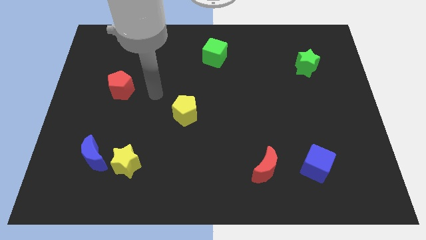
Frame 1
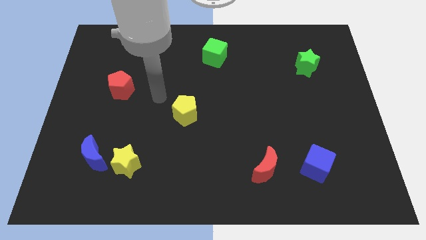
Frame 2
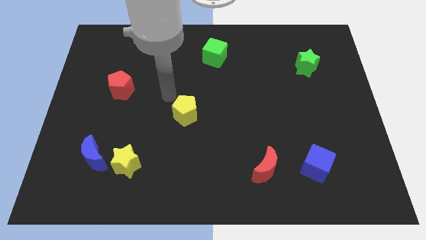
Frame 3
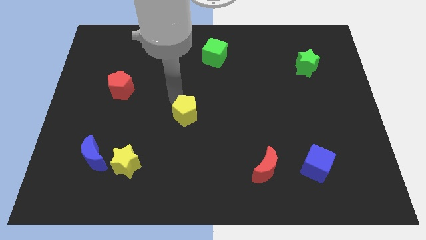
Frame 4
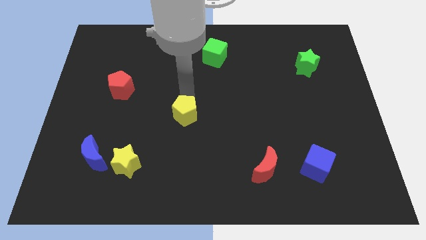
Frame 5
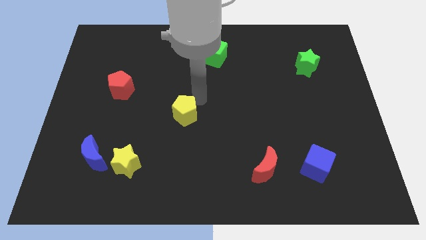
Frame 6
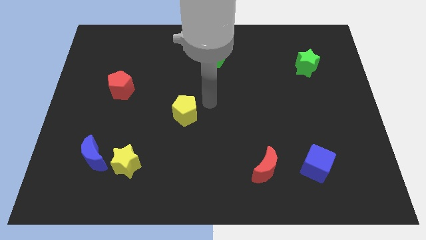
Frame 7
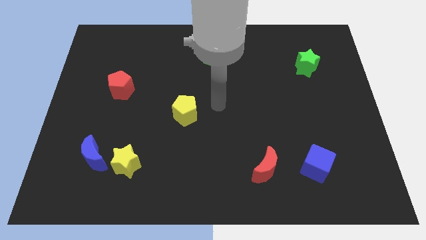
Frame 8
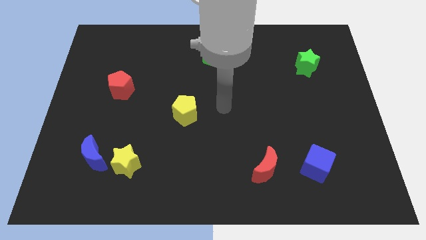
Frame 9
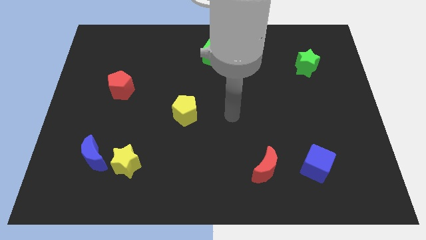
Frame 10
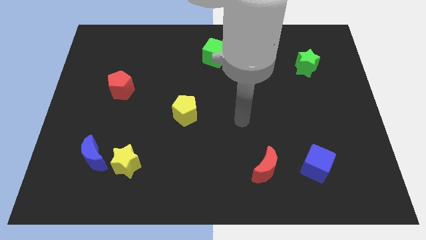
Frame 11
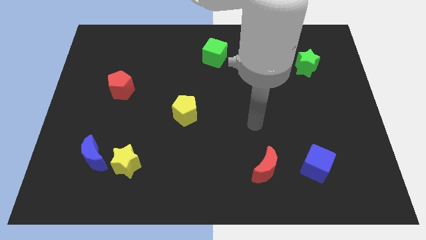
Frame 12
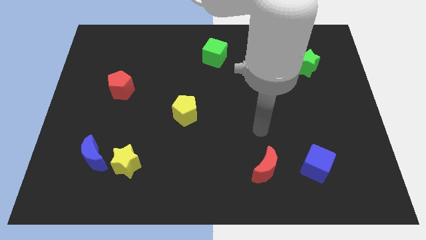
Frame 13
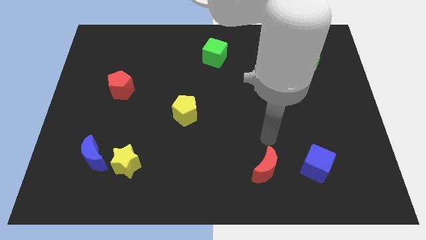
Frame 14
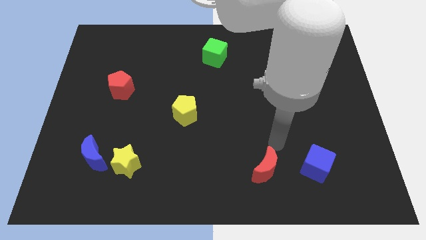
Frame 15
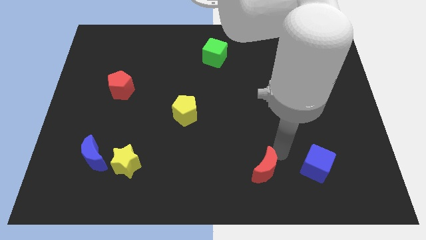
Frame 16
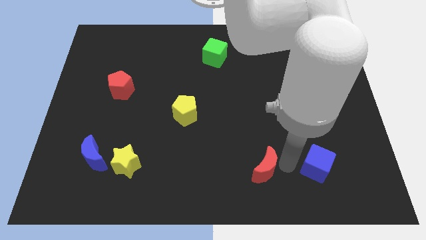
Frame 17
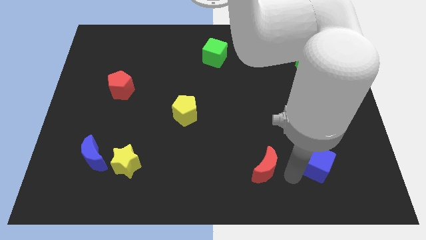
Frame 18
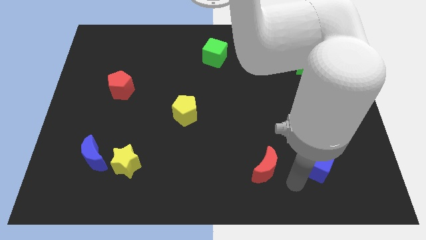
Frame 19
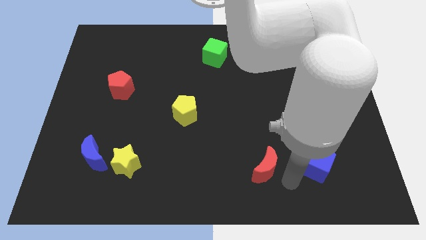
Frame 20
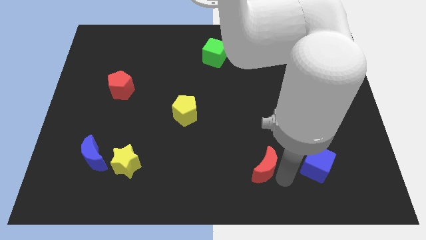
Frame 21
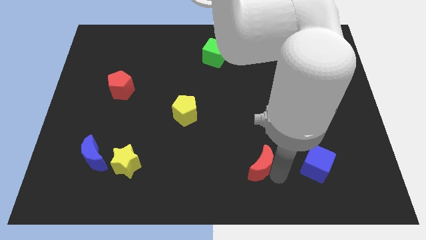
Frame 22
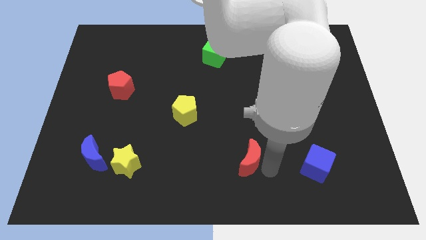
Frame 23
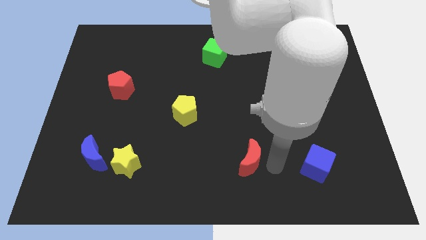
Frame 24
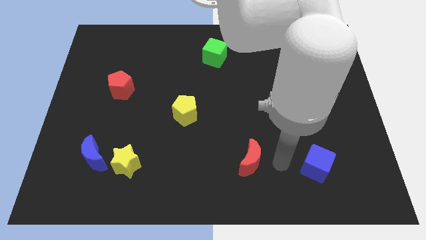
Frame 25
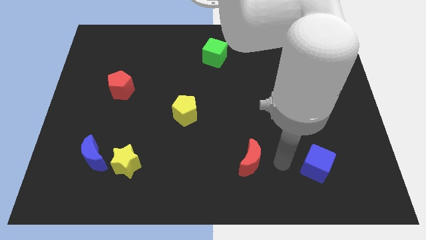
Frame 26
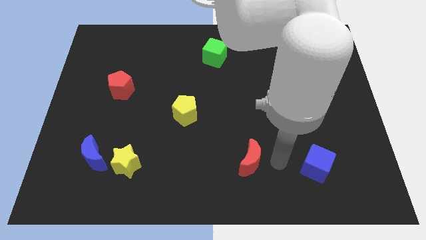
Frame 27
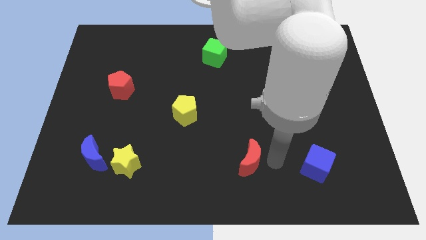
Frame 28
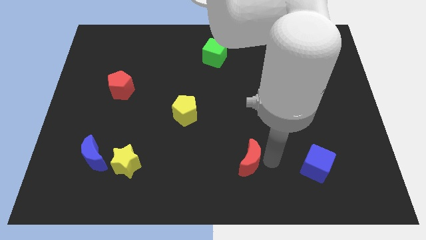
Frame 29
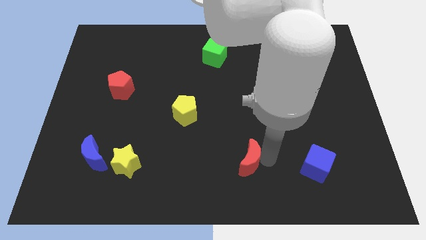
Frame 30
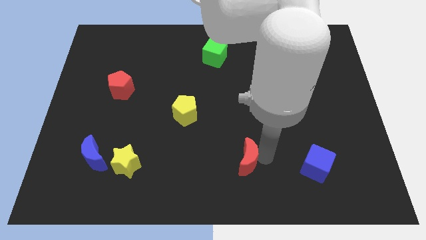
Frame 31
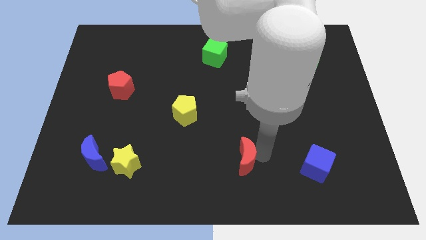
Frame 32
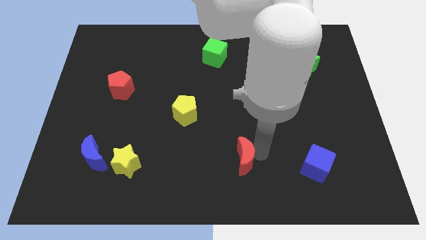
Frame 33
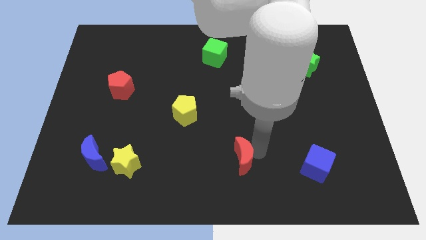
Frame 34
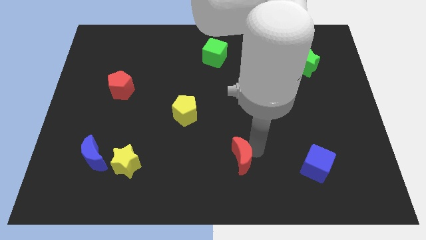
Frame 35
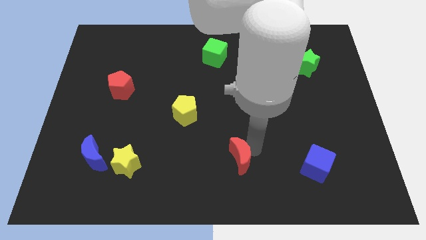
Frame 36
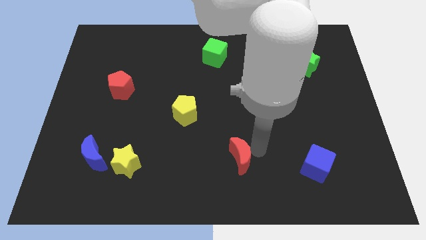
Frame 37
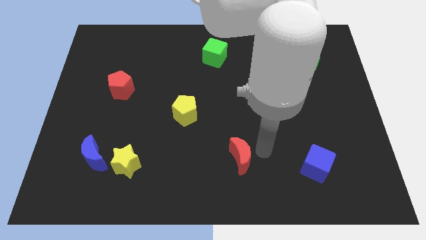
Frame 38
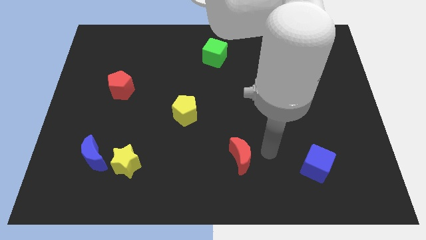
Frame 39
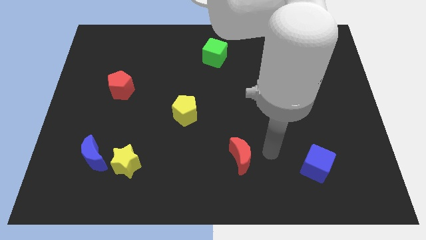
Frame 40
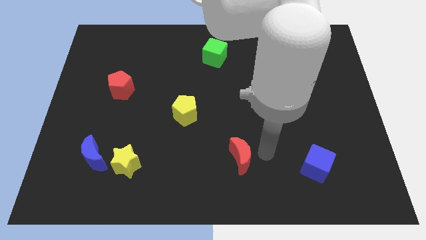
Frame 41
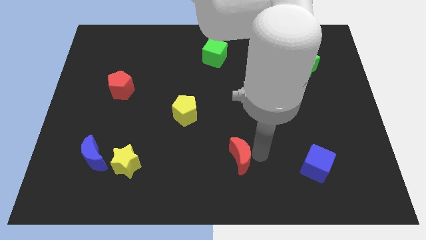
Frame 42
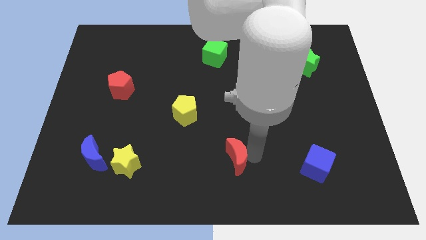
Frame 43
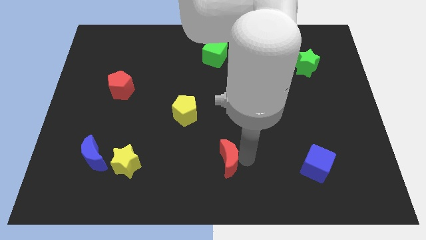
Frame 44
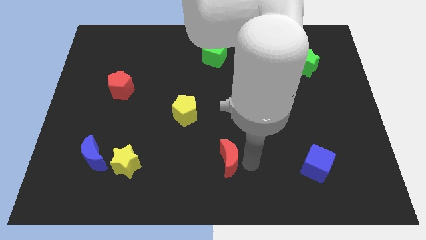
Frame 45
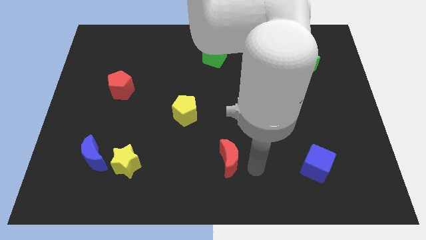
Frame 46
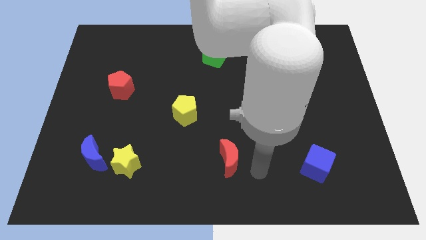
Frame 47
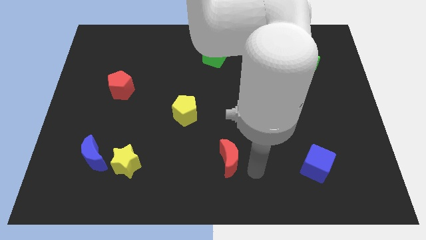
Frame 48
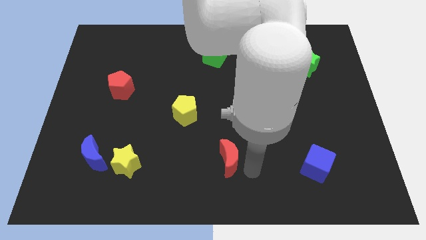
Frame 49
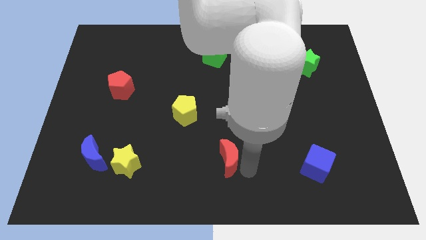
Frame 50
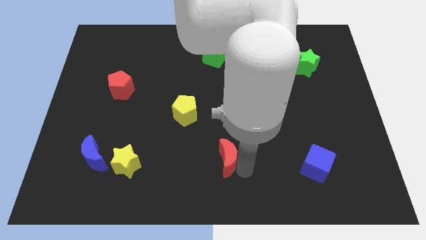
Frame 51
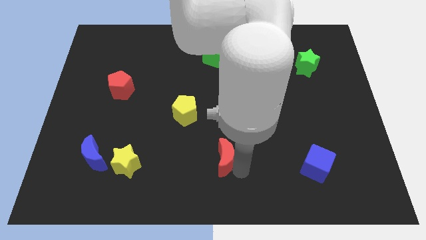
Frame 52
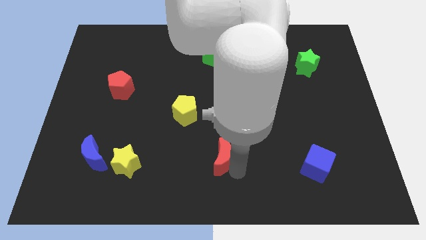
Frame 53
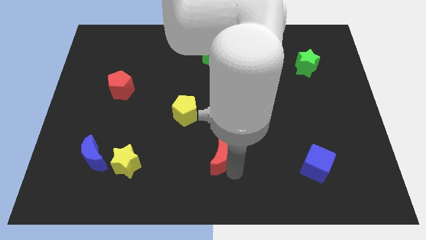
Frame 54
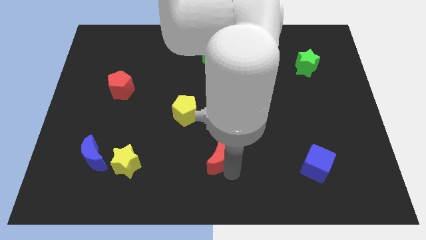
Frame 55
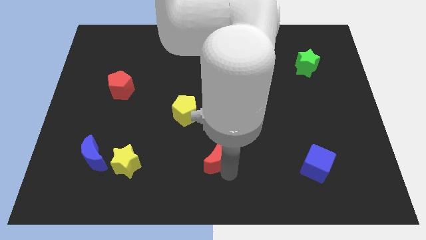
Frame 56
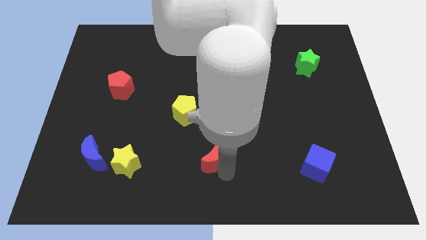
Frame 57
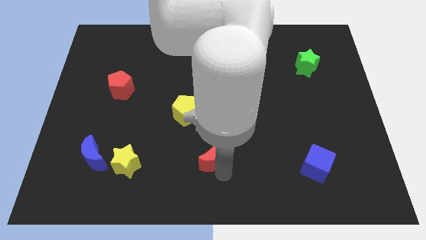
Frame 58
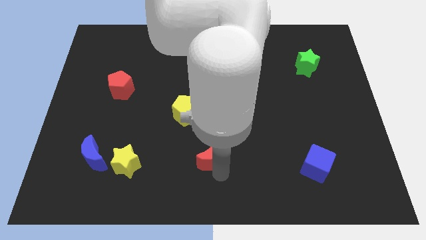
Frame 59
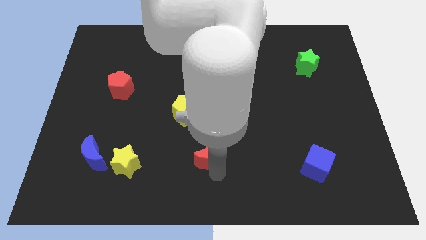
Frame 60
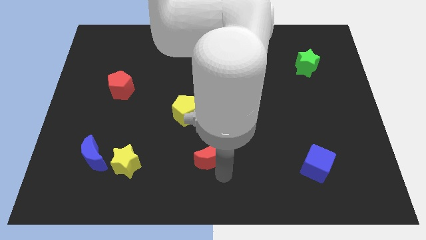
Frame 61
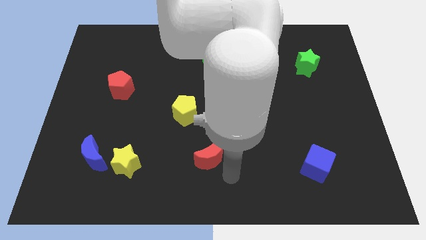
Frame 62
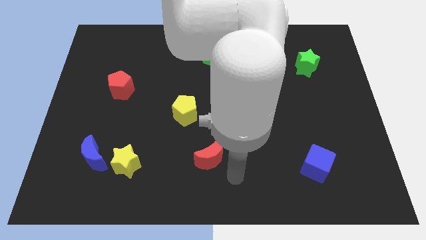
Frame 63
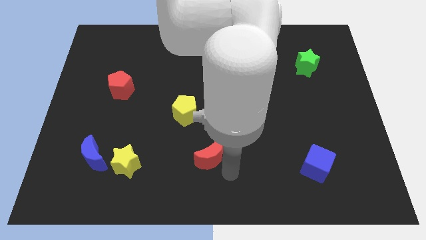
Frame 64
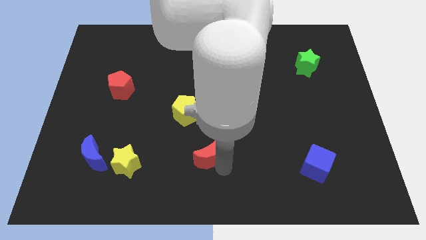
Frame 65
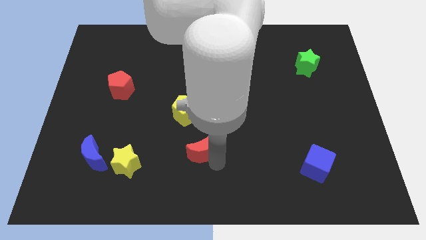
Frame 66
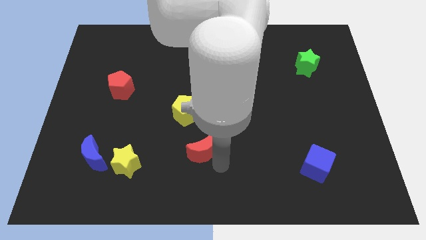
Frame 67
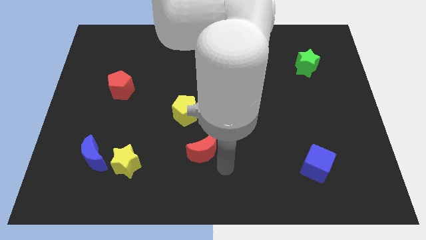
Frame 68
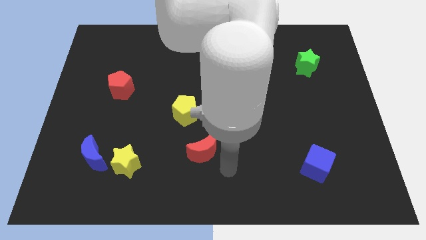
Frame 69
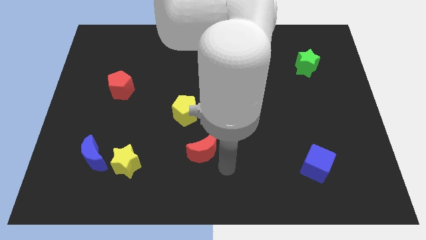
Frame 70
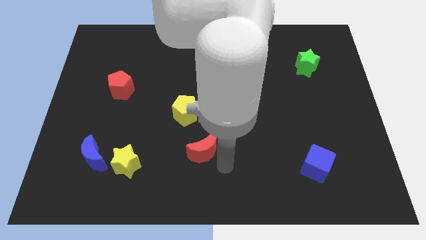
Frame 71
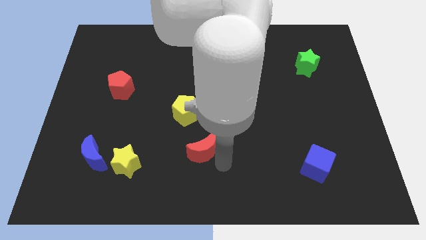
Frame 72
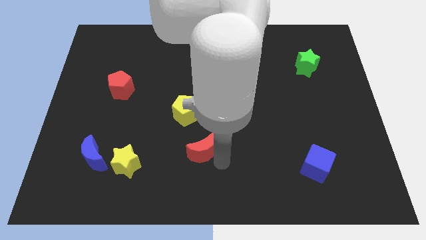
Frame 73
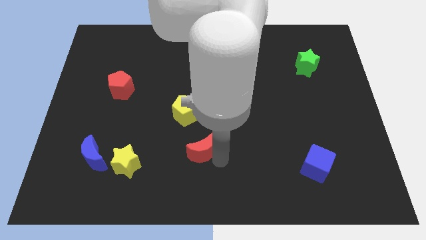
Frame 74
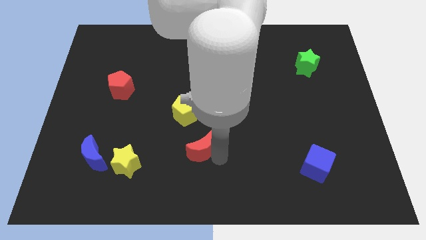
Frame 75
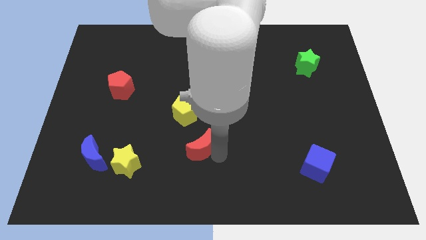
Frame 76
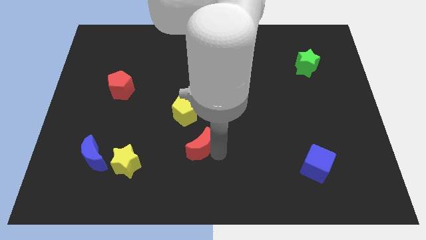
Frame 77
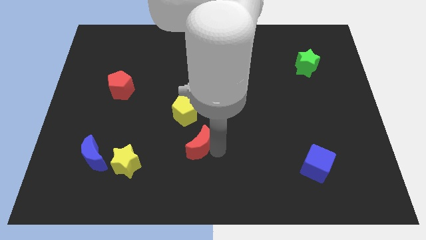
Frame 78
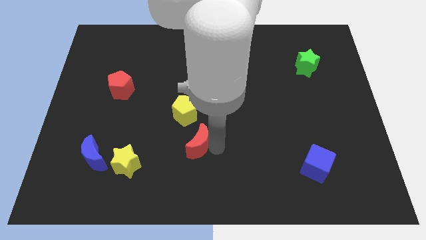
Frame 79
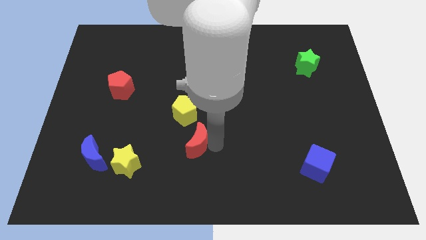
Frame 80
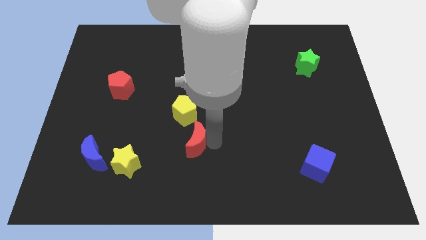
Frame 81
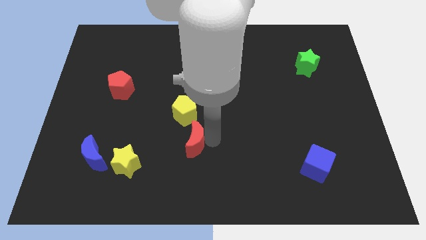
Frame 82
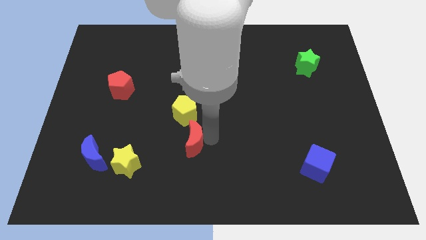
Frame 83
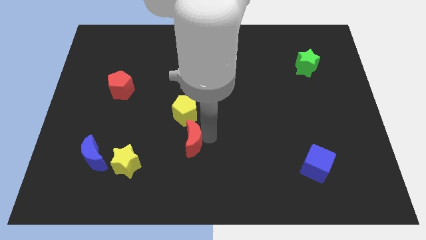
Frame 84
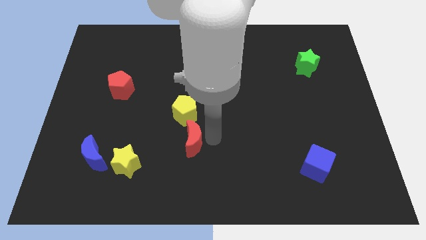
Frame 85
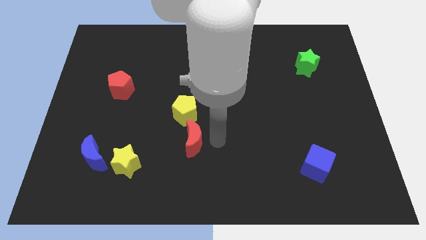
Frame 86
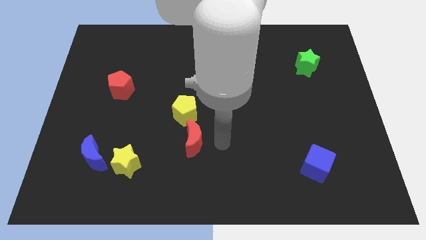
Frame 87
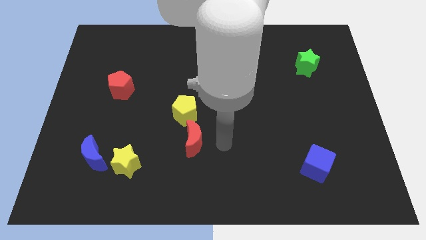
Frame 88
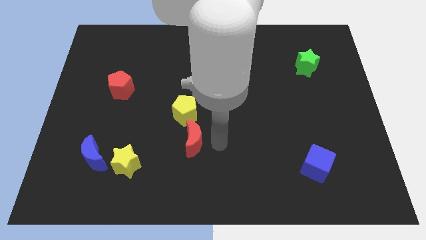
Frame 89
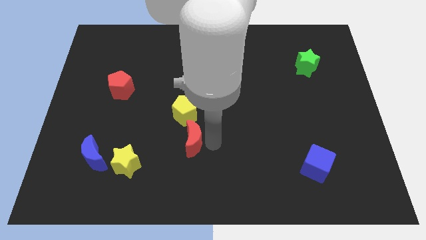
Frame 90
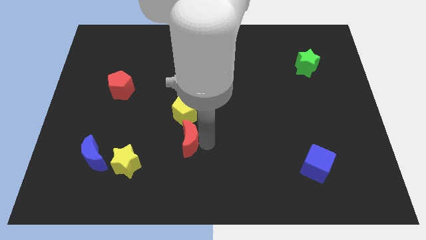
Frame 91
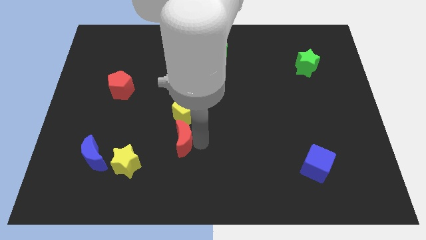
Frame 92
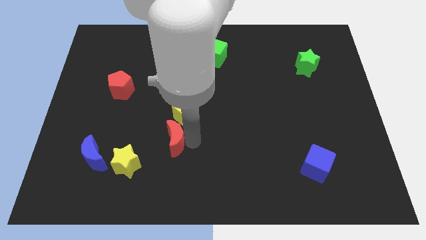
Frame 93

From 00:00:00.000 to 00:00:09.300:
move the red moon diagonally up and to the right of the yellow star
